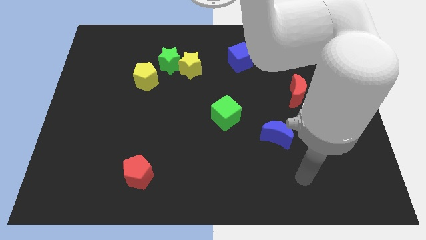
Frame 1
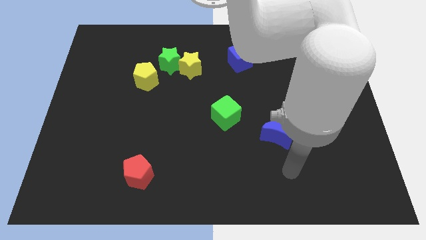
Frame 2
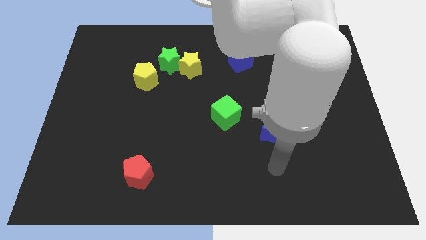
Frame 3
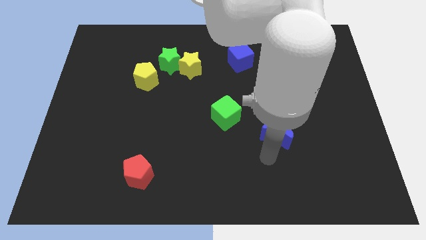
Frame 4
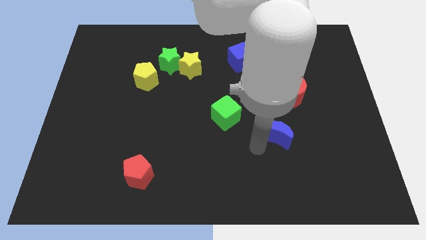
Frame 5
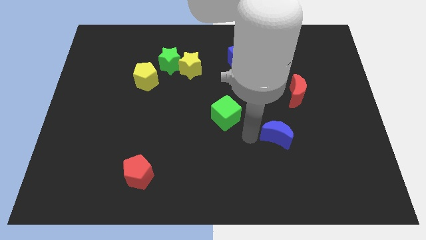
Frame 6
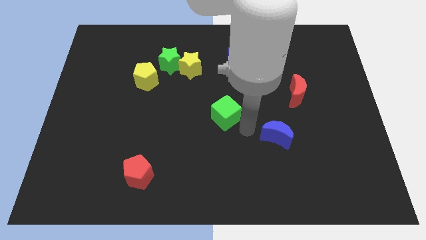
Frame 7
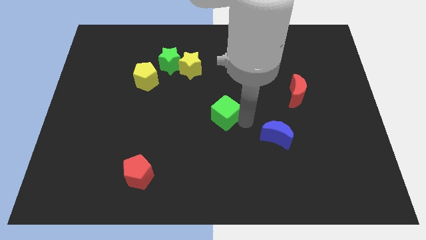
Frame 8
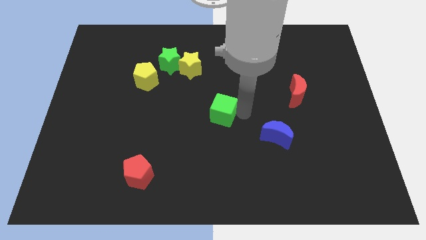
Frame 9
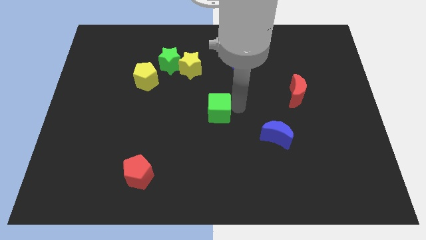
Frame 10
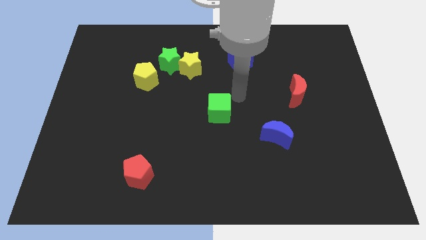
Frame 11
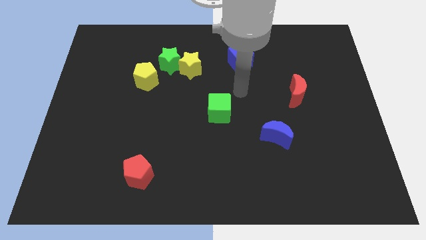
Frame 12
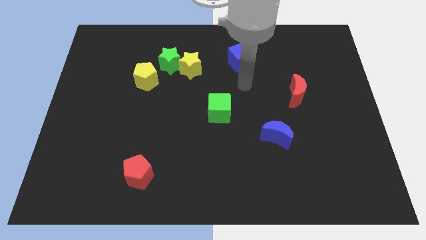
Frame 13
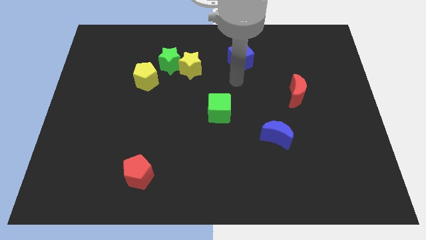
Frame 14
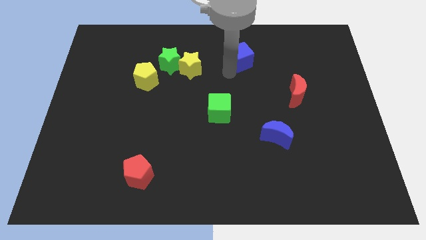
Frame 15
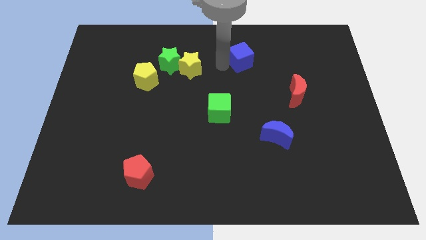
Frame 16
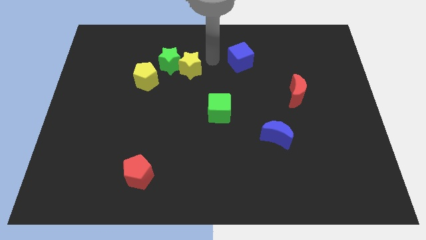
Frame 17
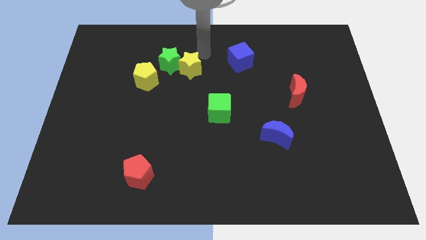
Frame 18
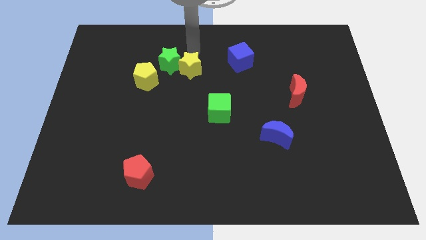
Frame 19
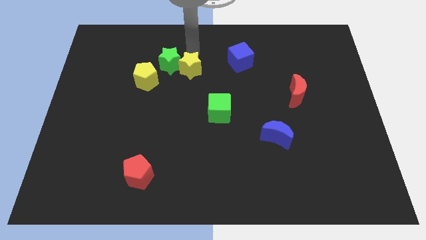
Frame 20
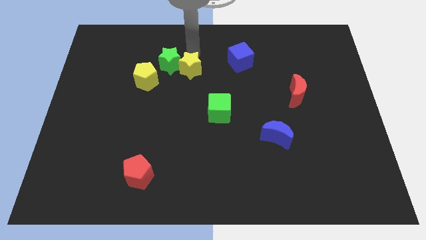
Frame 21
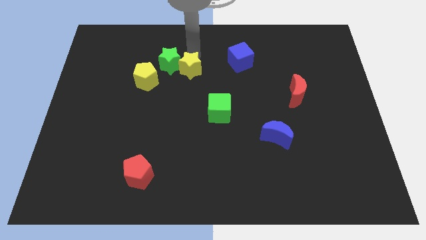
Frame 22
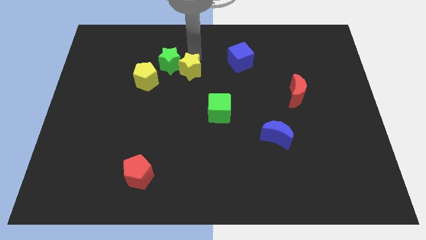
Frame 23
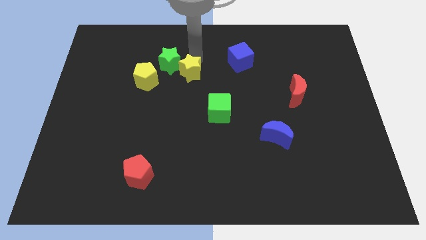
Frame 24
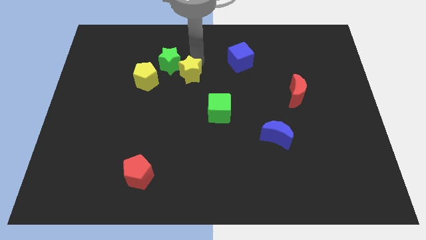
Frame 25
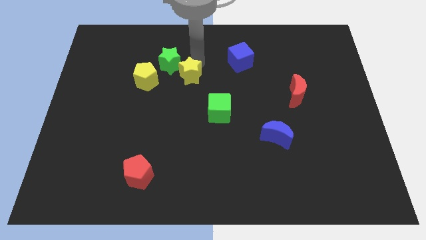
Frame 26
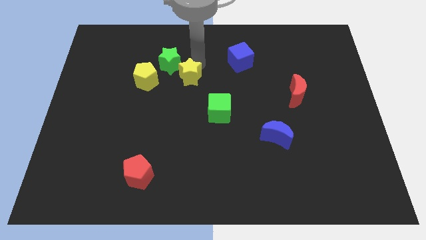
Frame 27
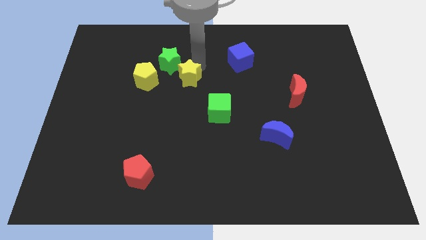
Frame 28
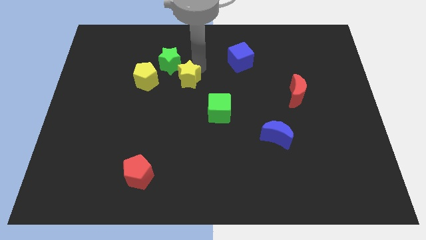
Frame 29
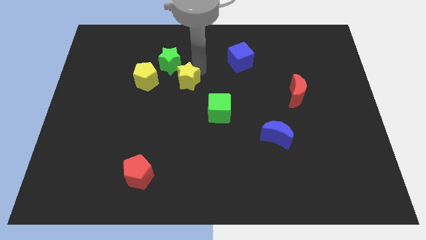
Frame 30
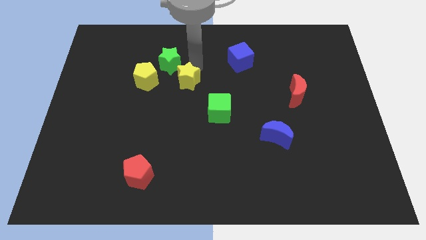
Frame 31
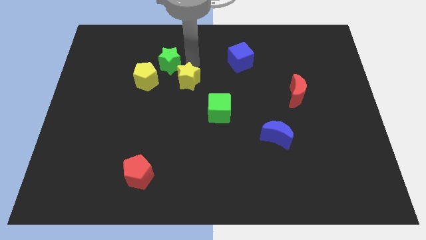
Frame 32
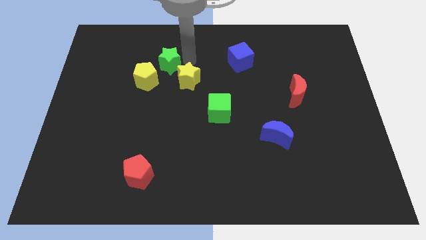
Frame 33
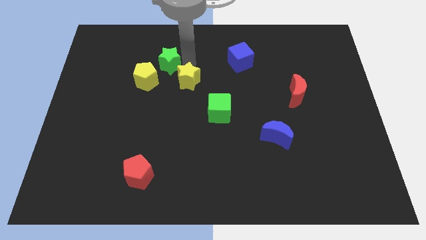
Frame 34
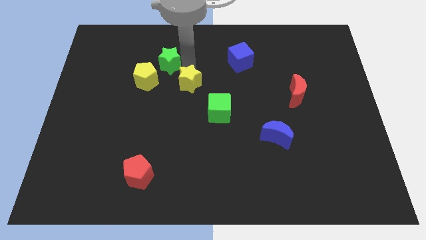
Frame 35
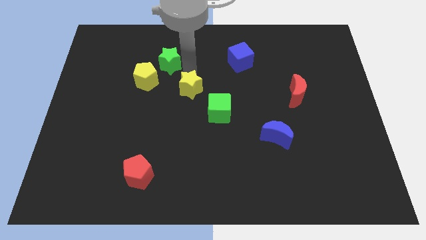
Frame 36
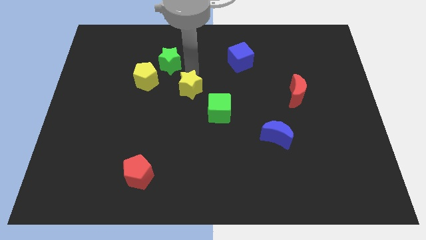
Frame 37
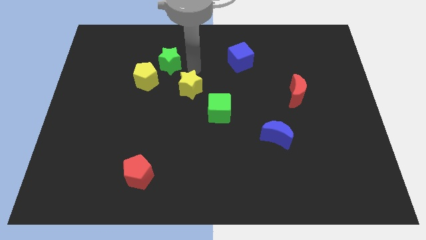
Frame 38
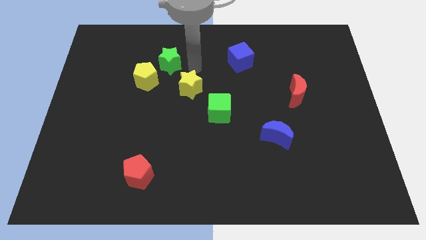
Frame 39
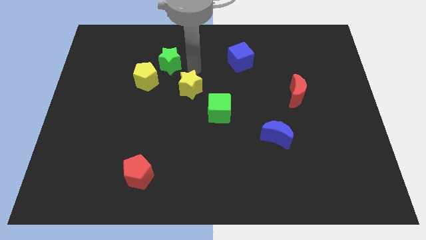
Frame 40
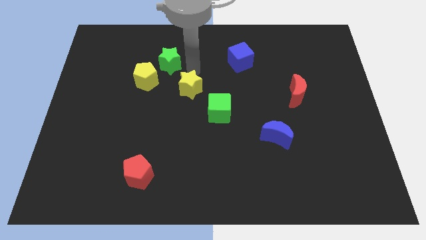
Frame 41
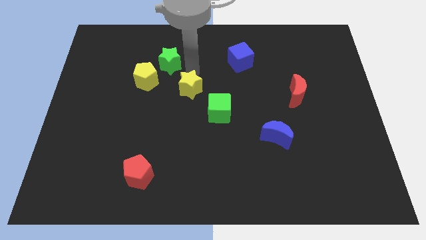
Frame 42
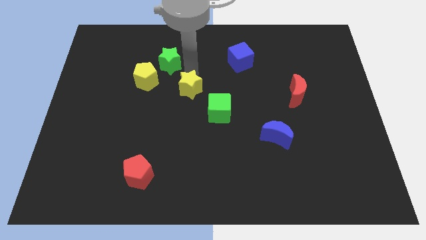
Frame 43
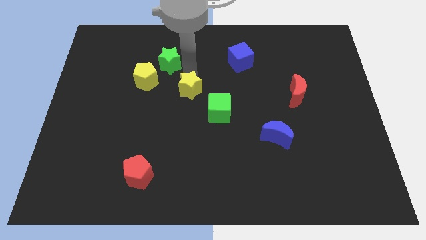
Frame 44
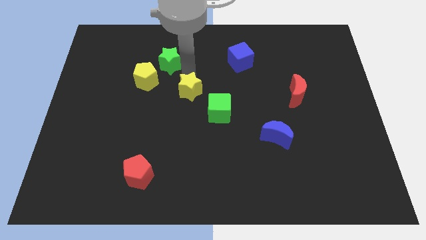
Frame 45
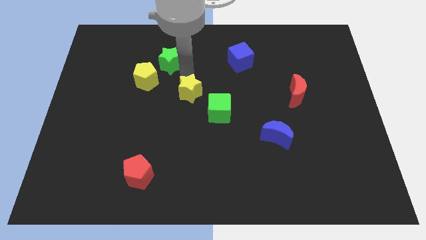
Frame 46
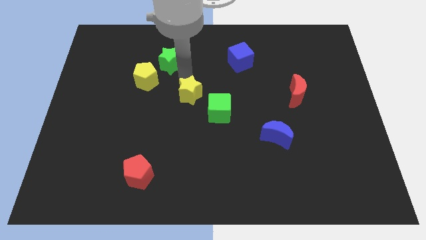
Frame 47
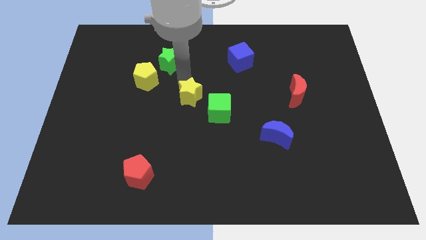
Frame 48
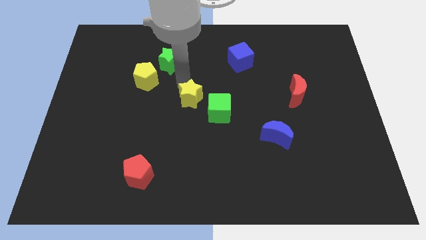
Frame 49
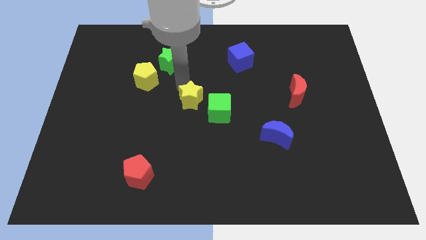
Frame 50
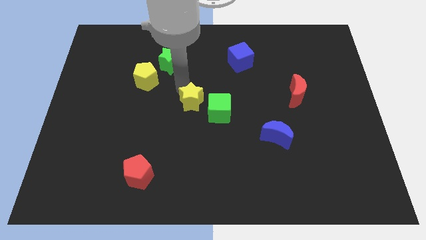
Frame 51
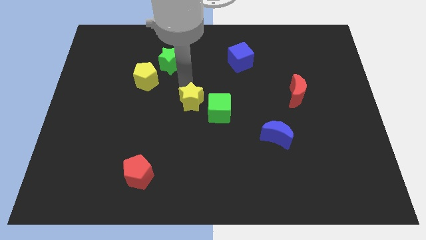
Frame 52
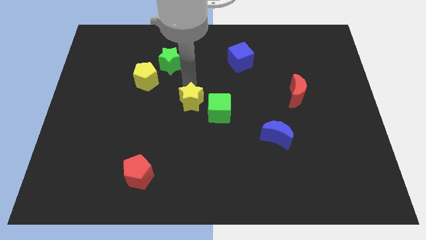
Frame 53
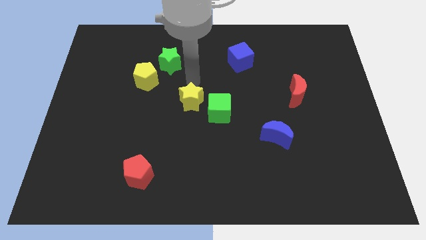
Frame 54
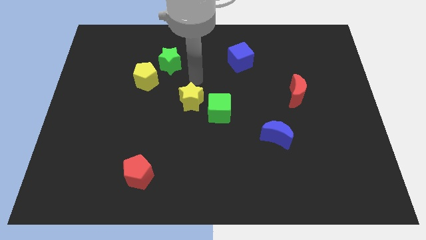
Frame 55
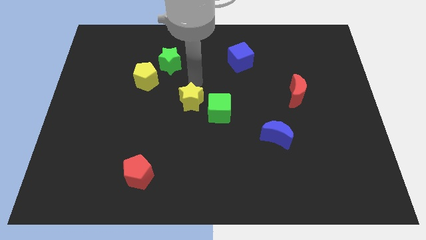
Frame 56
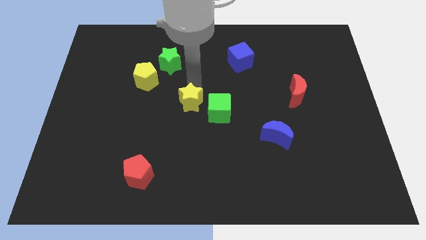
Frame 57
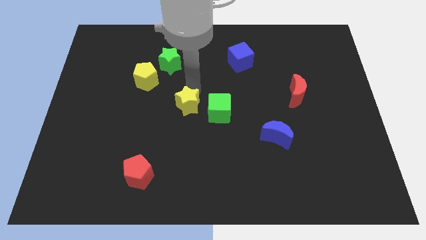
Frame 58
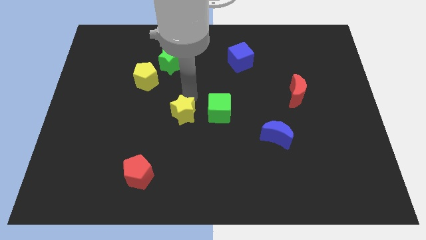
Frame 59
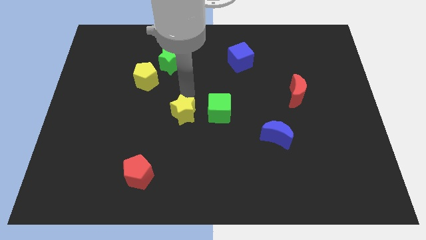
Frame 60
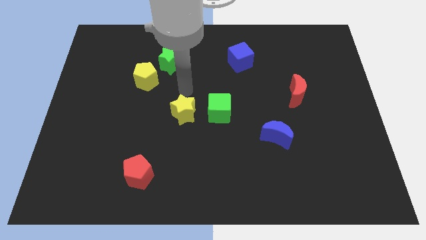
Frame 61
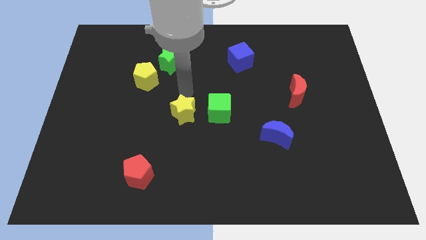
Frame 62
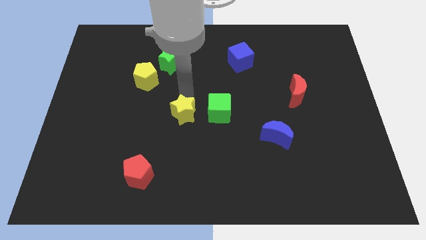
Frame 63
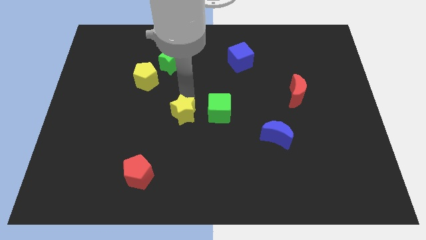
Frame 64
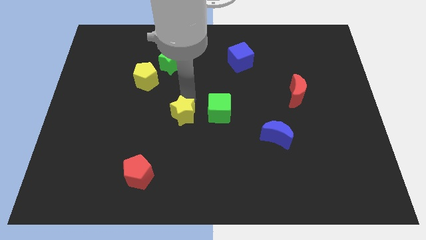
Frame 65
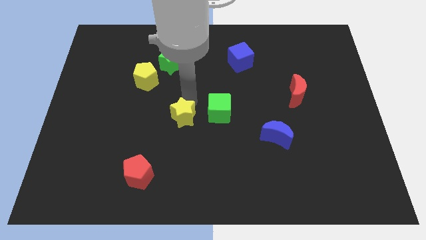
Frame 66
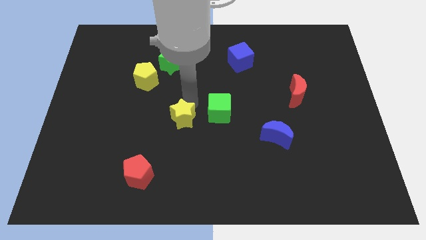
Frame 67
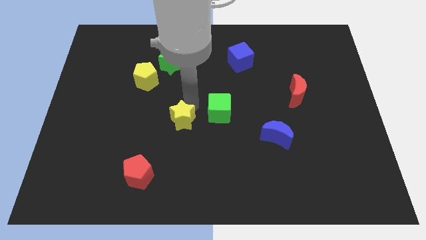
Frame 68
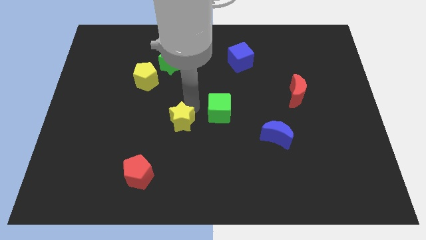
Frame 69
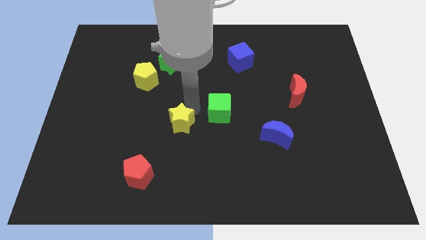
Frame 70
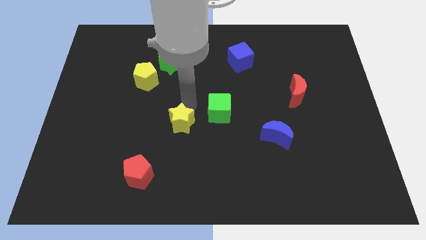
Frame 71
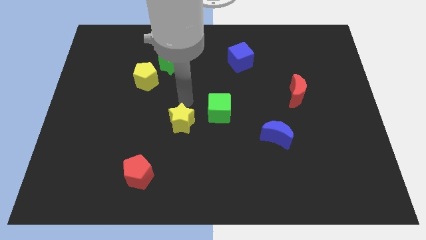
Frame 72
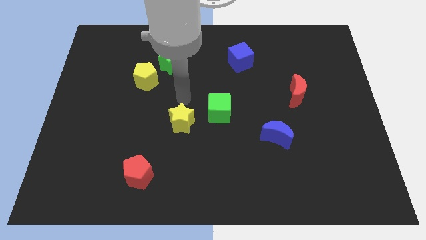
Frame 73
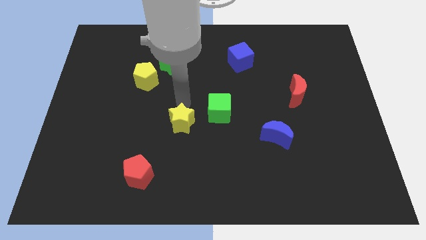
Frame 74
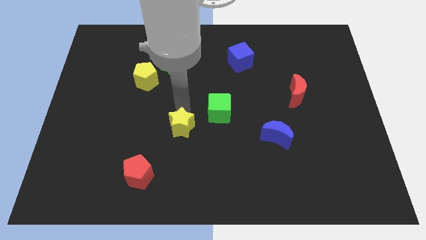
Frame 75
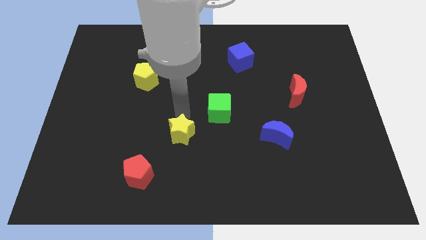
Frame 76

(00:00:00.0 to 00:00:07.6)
push the yellow star down

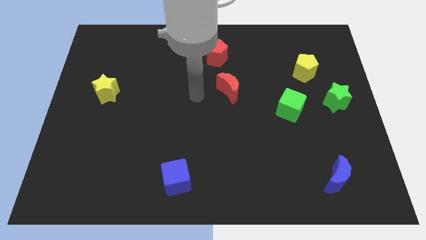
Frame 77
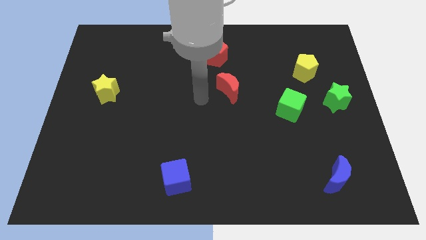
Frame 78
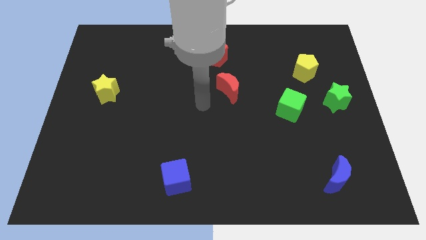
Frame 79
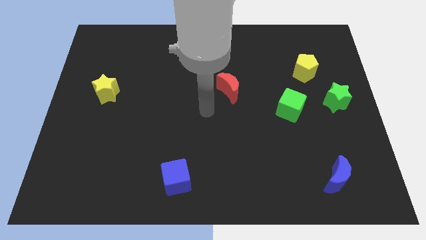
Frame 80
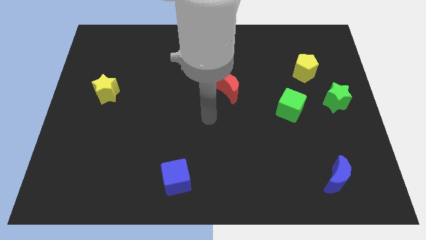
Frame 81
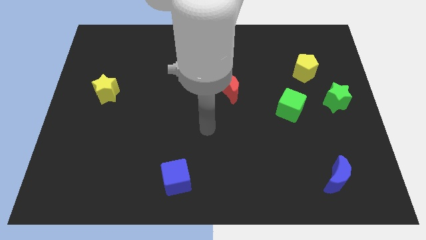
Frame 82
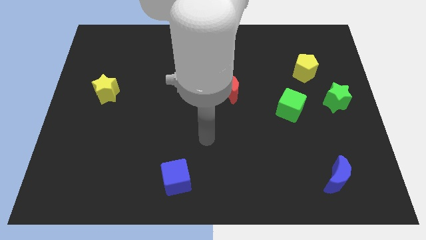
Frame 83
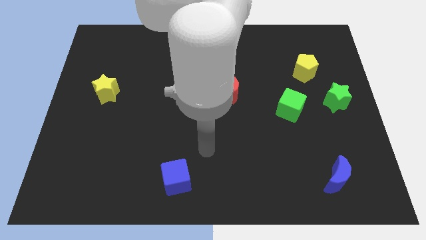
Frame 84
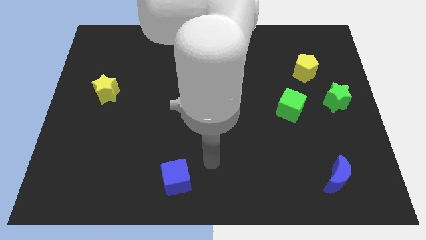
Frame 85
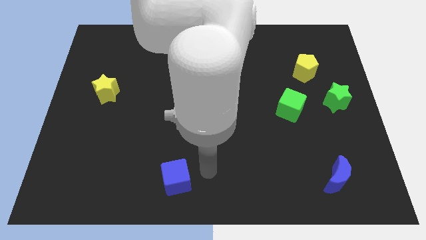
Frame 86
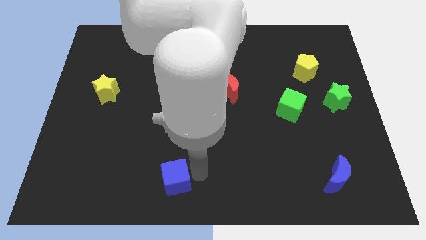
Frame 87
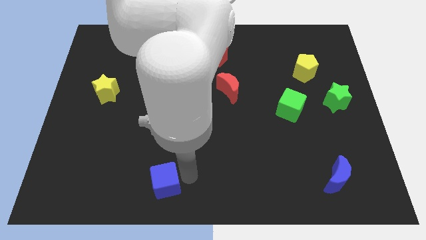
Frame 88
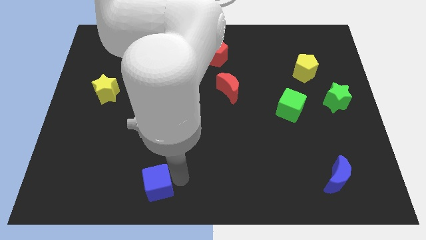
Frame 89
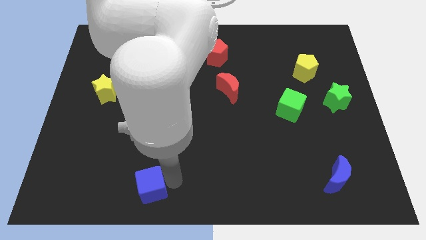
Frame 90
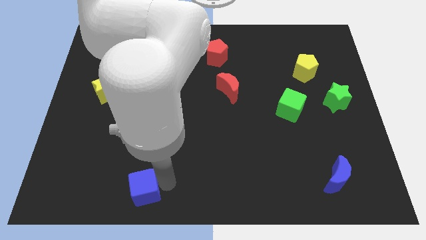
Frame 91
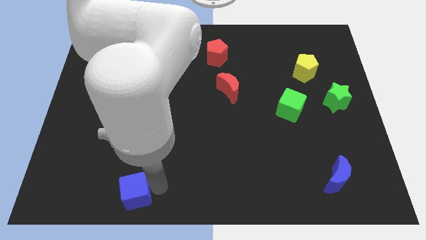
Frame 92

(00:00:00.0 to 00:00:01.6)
push the blue cube somewhat to the left
